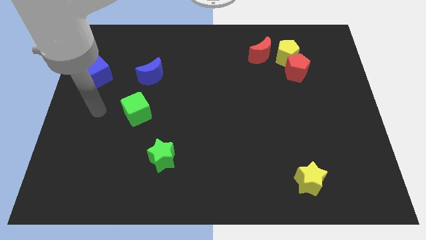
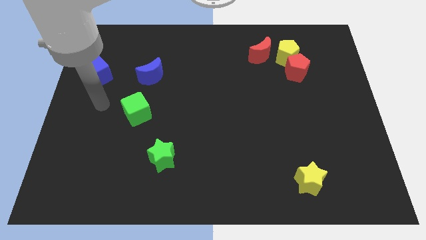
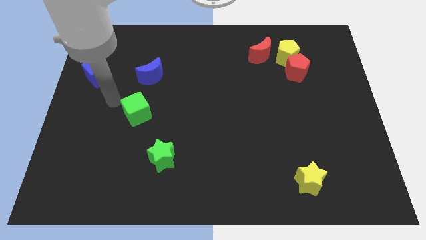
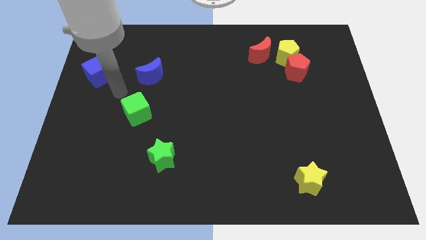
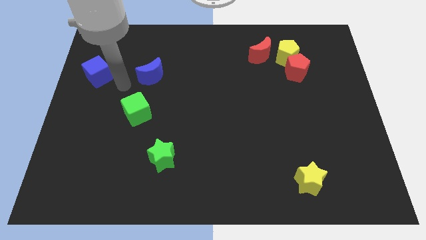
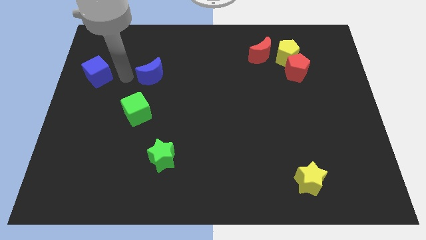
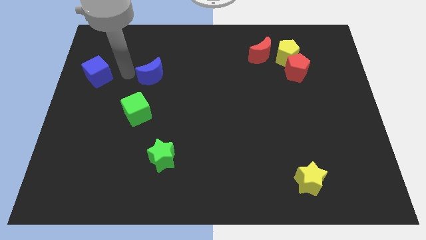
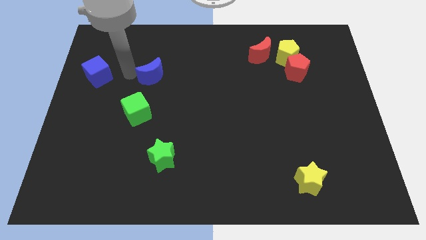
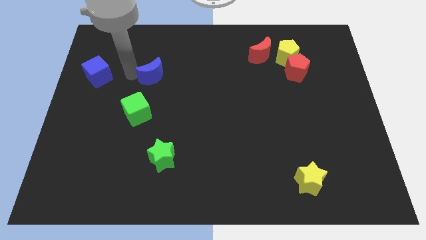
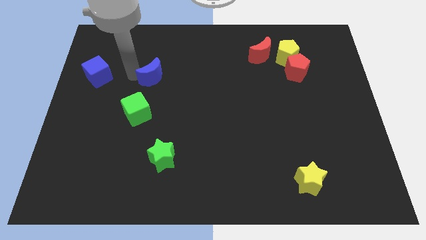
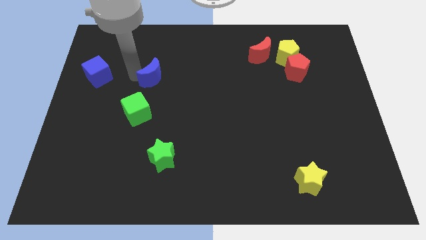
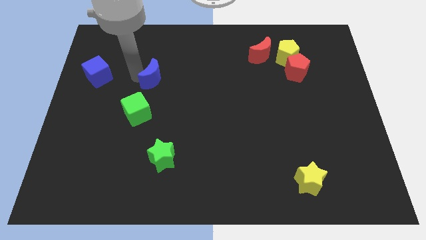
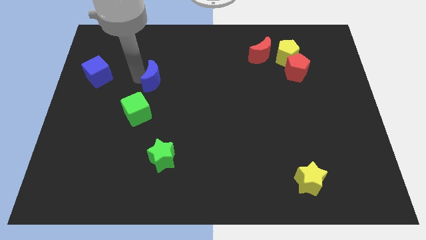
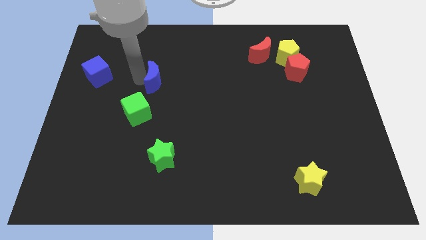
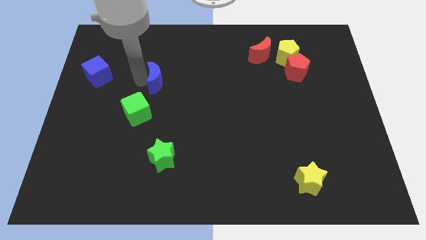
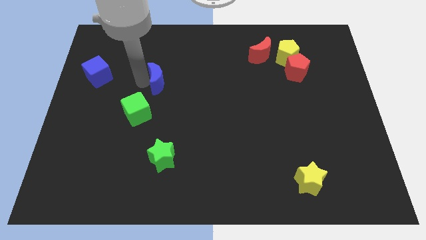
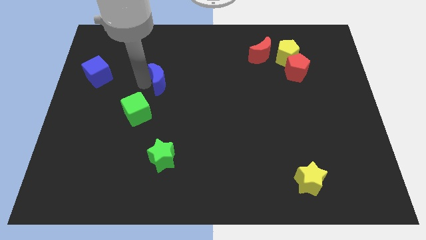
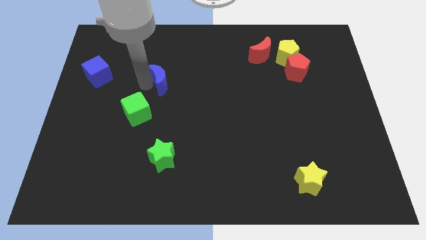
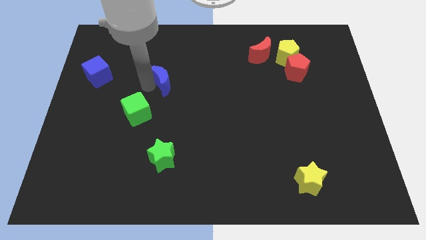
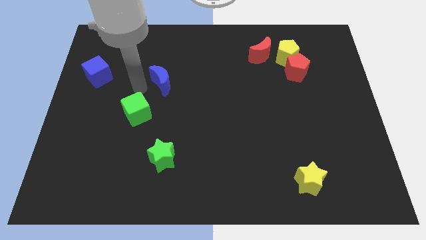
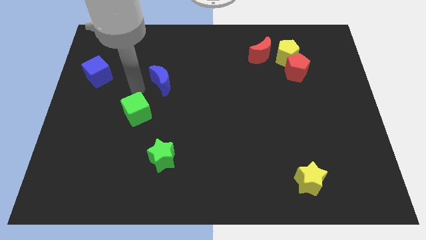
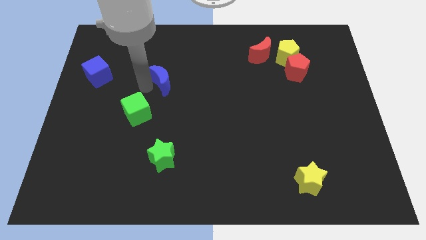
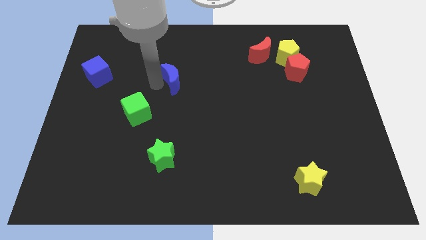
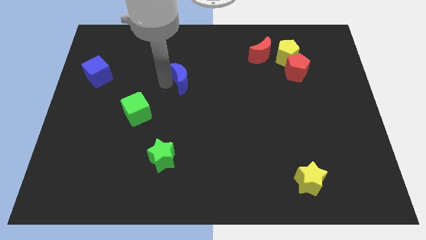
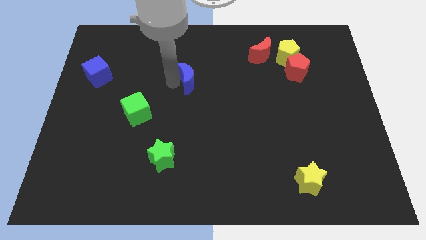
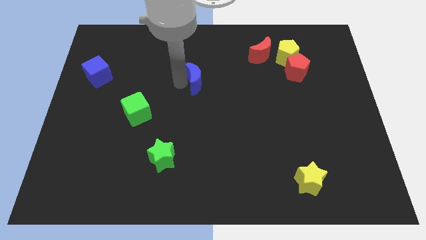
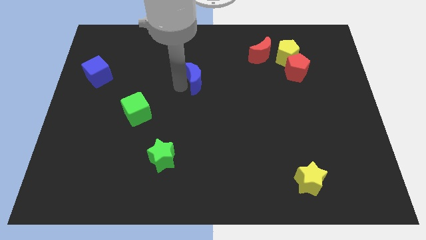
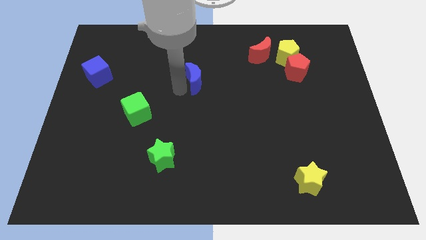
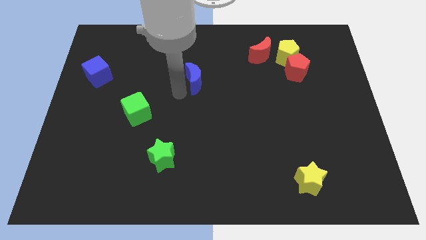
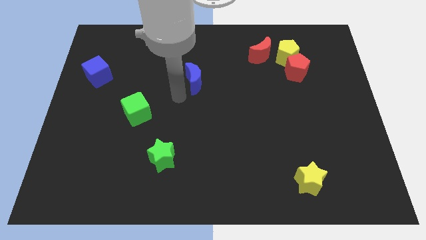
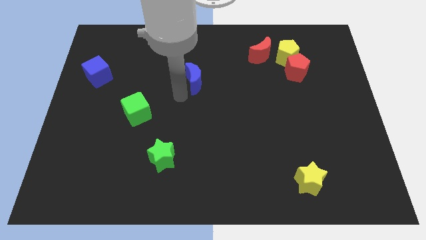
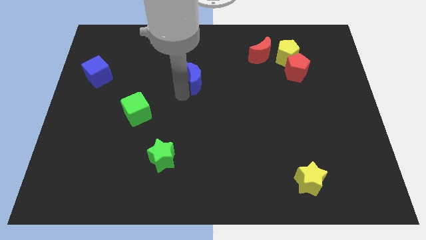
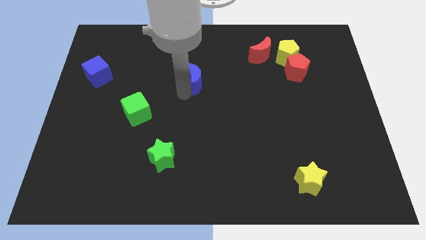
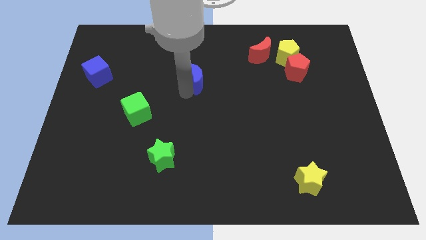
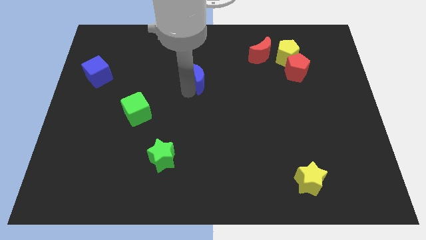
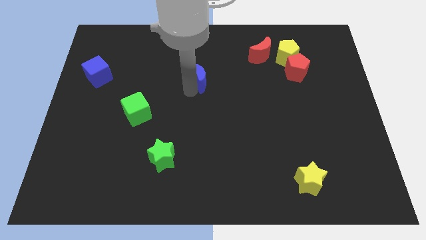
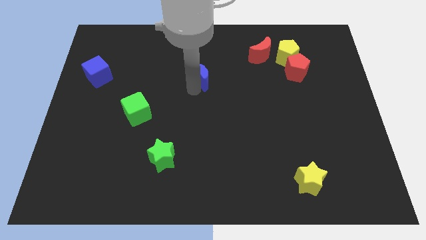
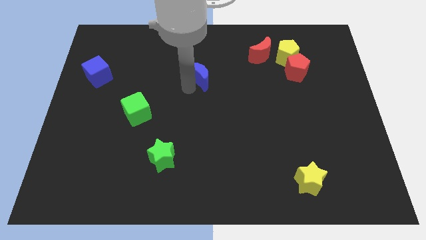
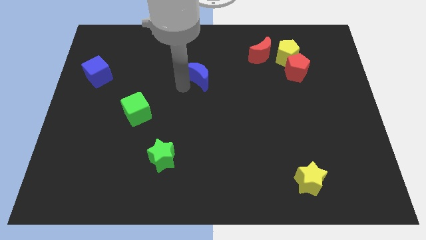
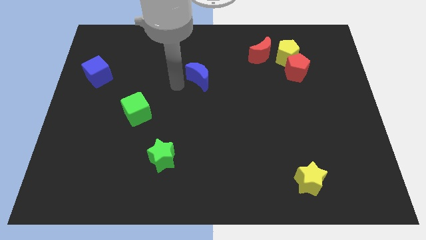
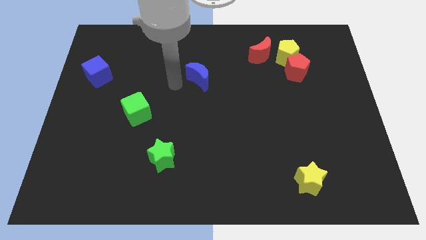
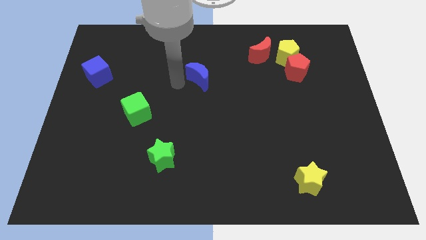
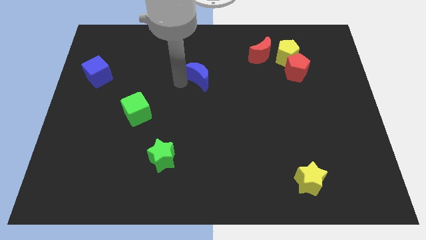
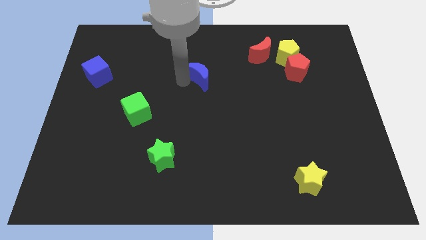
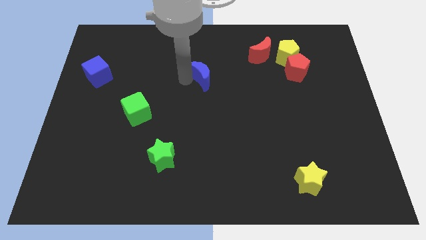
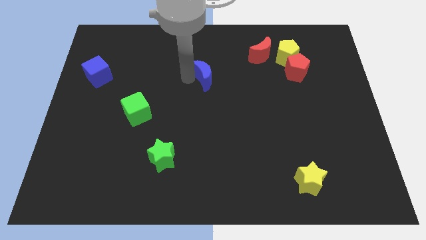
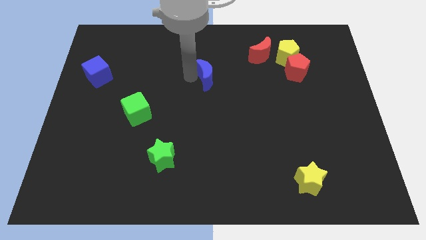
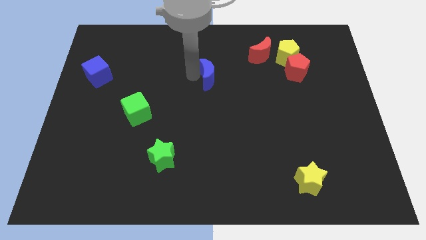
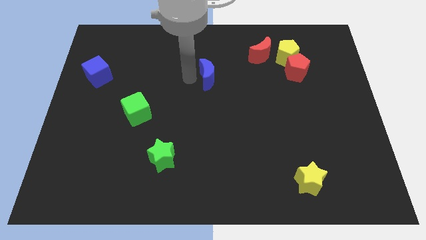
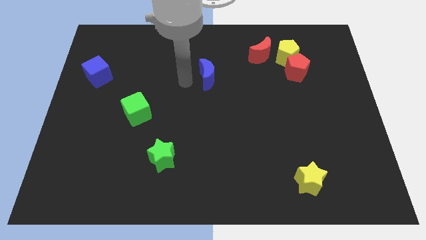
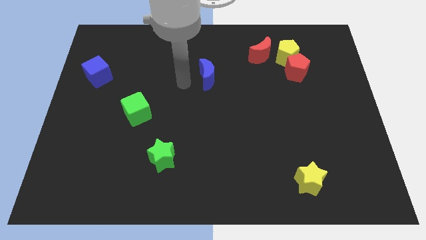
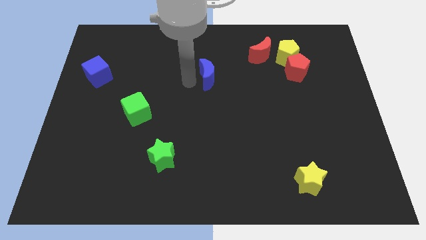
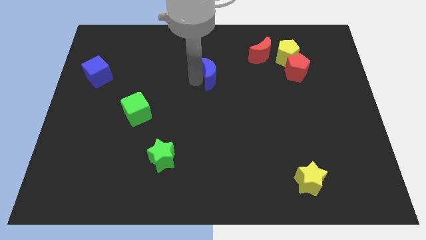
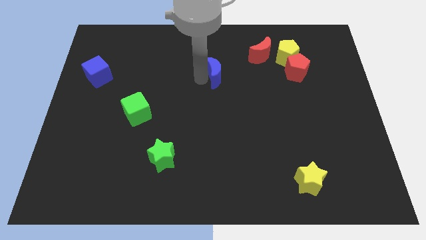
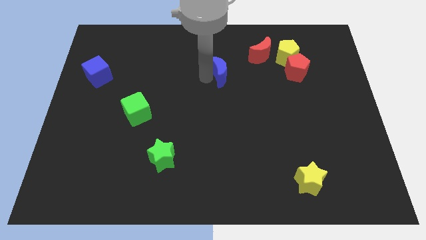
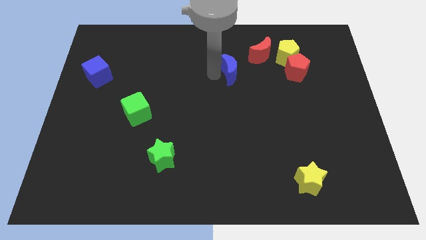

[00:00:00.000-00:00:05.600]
slide the blue moon to the right

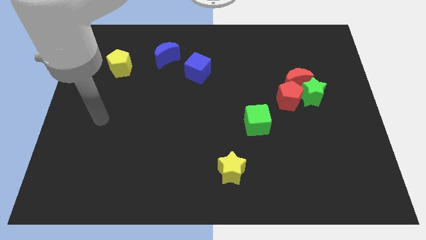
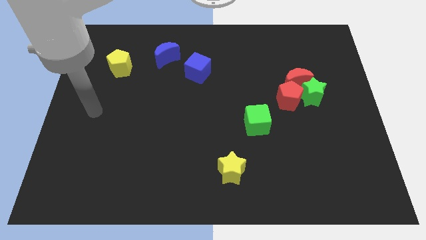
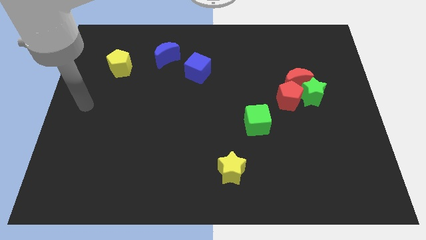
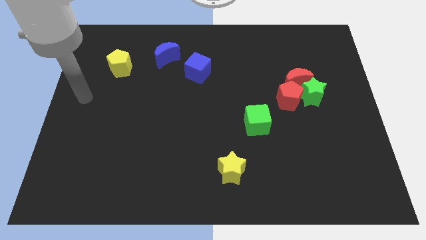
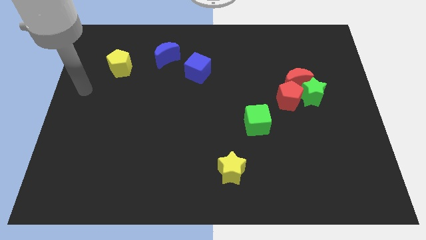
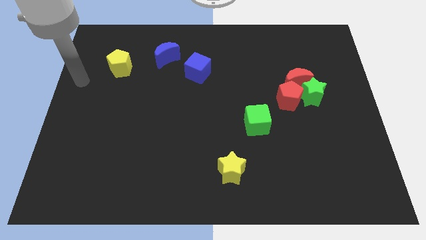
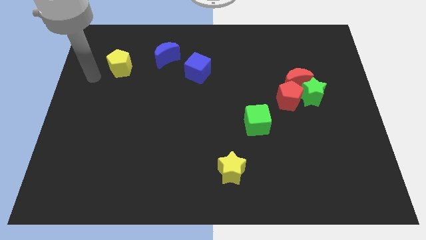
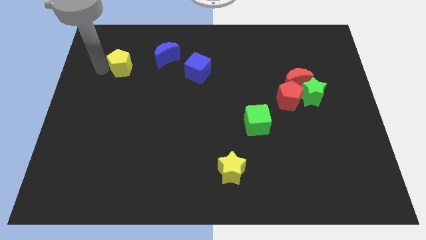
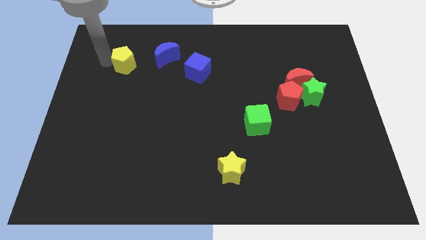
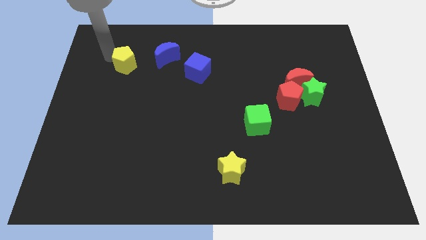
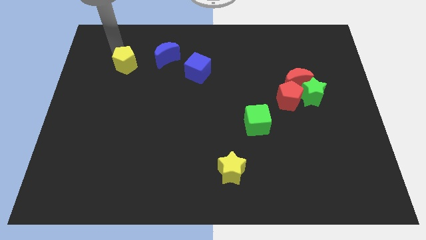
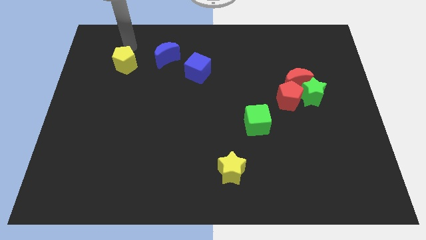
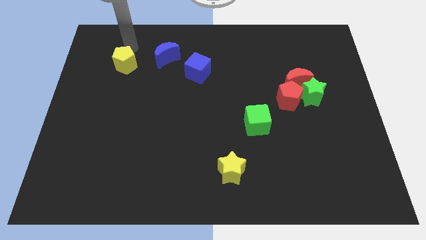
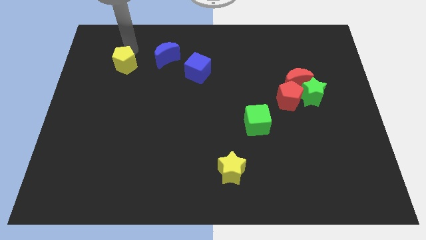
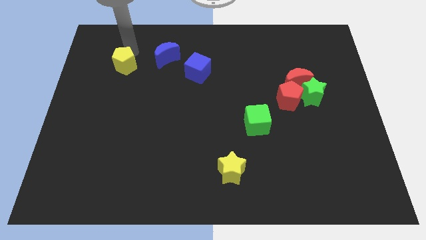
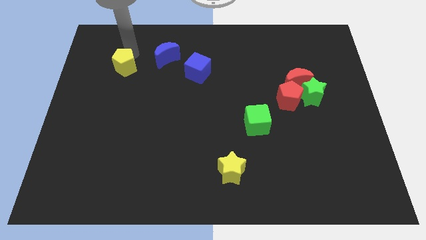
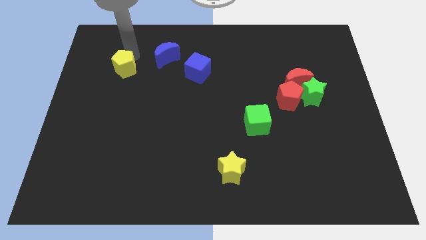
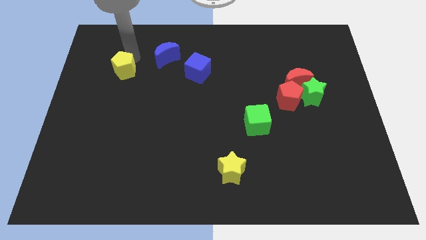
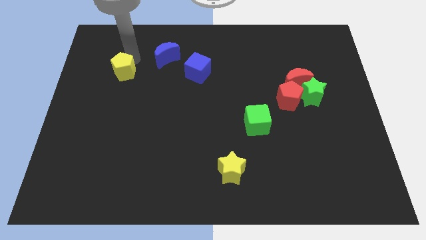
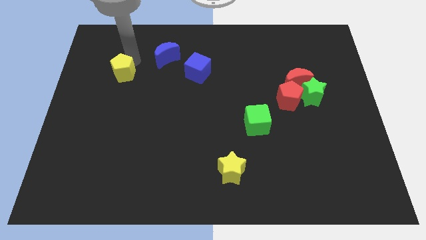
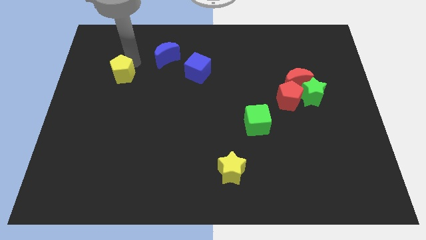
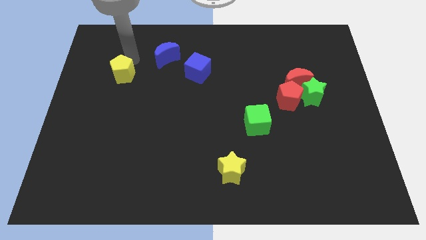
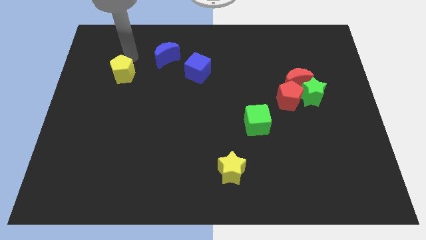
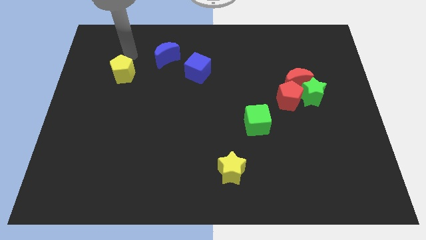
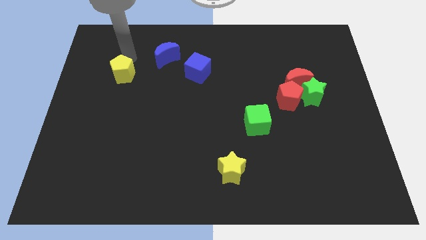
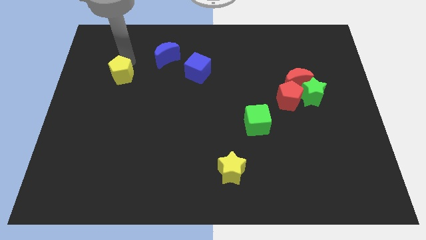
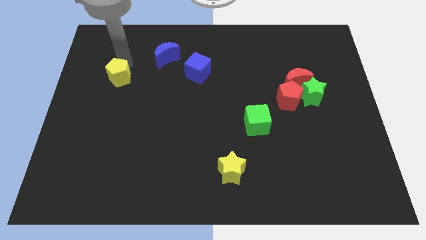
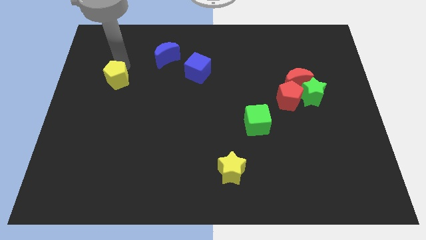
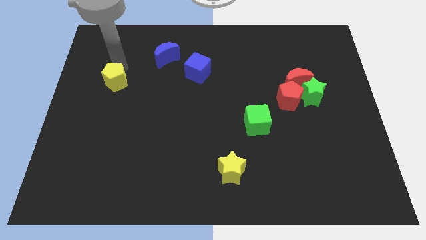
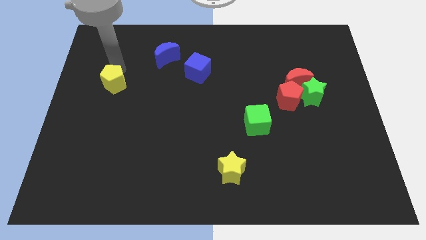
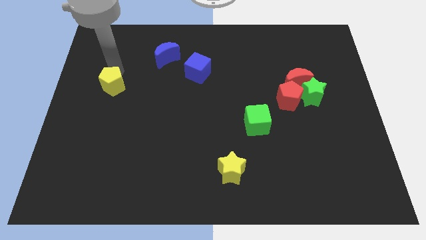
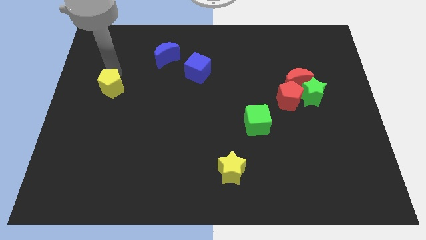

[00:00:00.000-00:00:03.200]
push the yellow pentagon a little down
